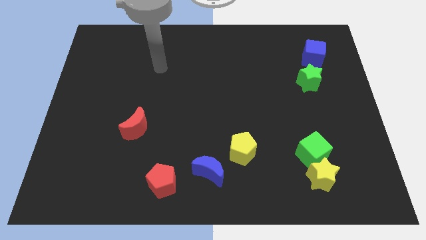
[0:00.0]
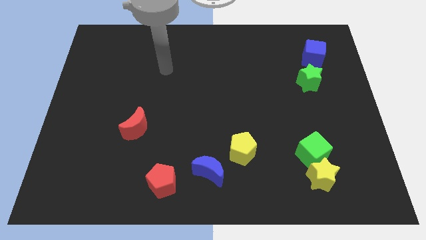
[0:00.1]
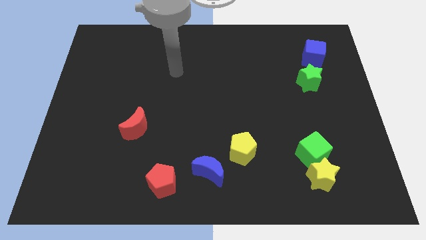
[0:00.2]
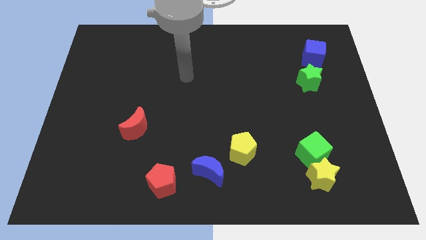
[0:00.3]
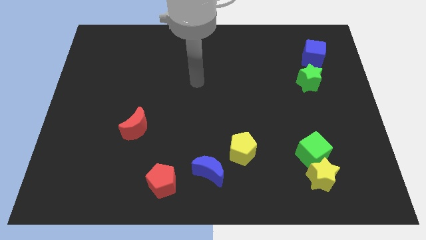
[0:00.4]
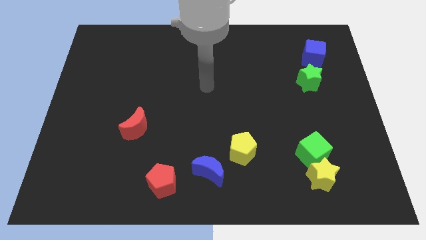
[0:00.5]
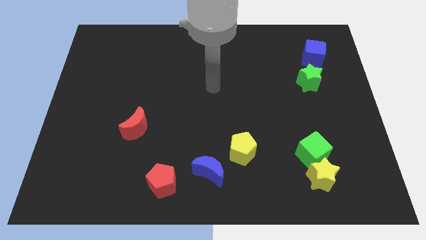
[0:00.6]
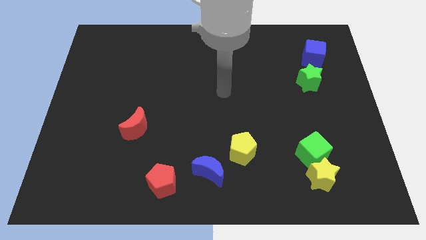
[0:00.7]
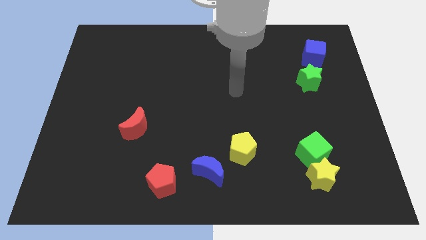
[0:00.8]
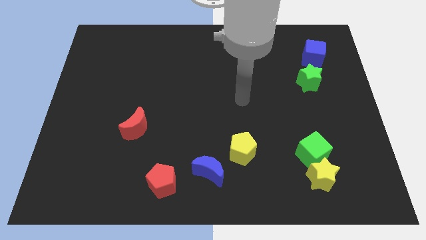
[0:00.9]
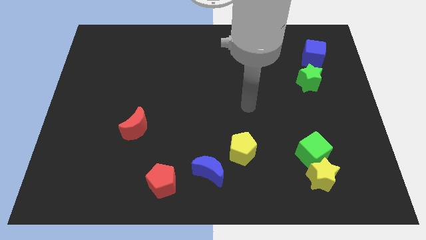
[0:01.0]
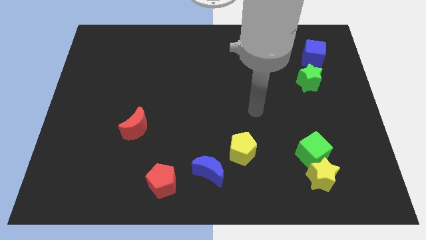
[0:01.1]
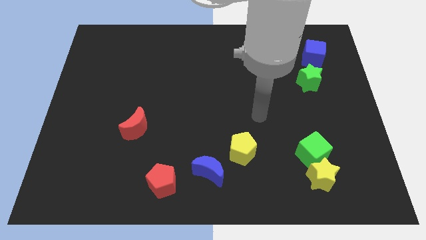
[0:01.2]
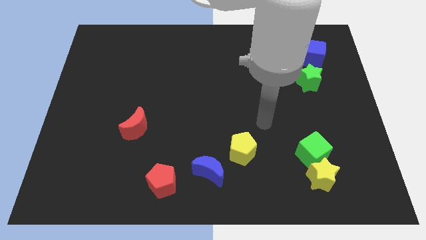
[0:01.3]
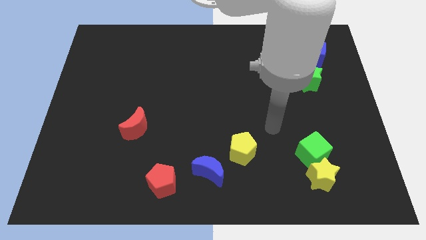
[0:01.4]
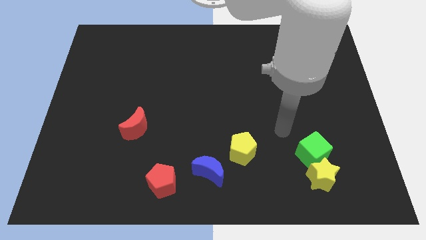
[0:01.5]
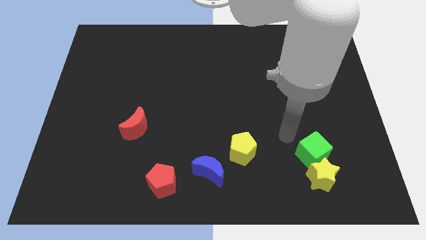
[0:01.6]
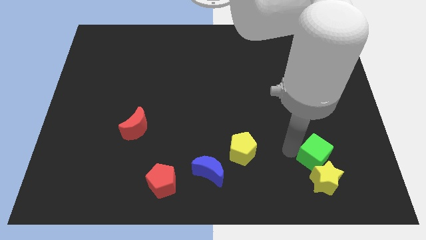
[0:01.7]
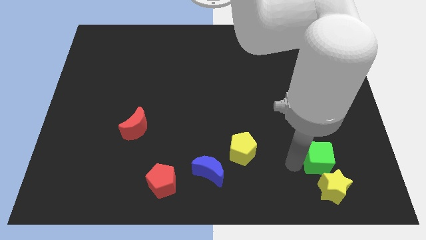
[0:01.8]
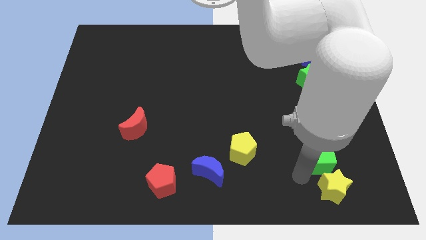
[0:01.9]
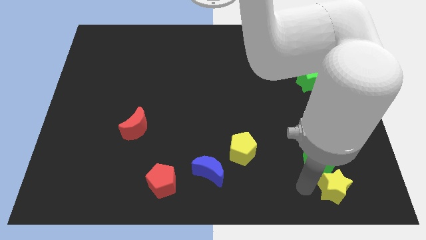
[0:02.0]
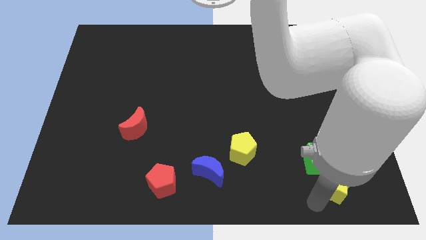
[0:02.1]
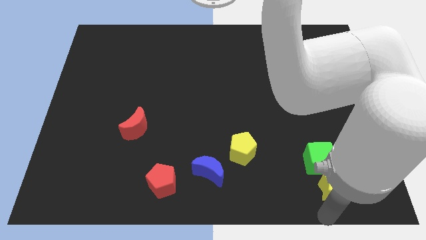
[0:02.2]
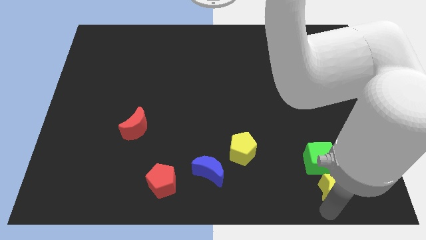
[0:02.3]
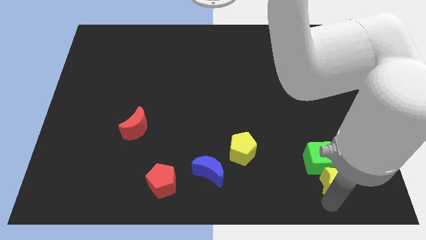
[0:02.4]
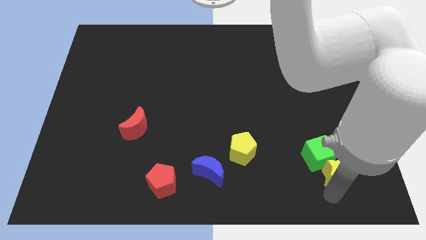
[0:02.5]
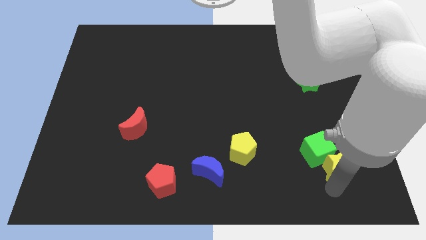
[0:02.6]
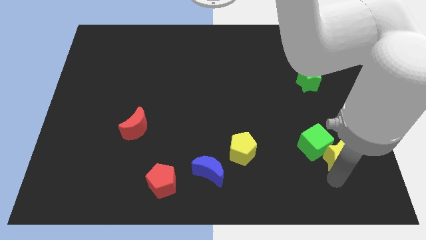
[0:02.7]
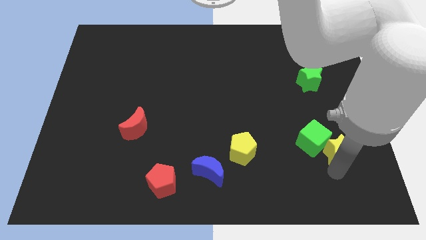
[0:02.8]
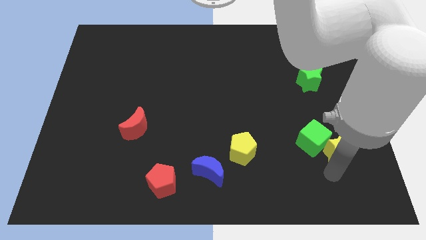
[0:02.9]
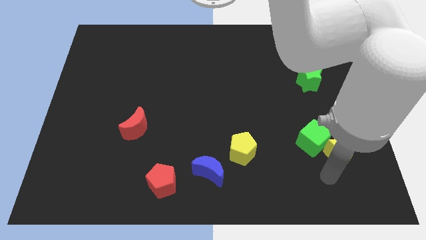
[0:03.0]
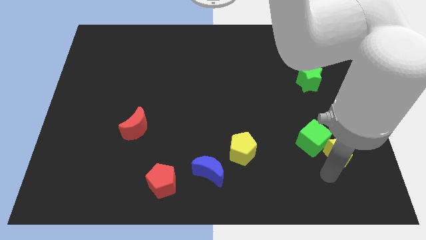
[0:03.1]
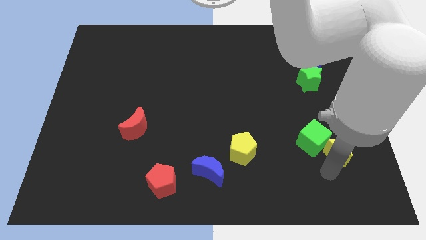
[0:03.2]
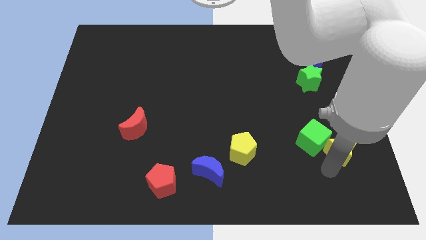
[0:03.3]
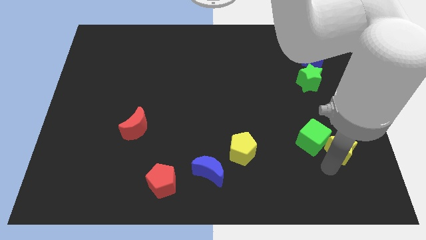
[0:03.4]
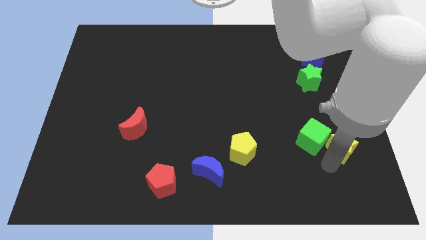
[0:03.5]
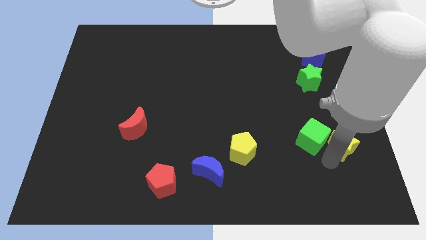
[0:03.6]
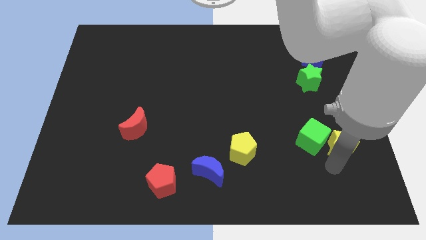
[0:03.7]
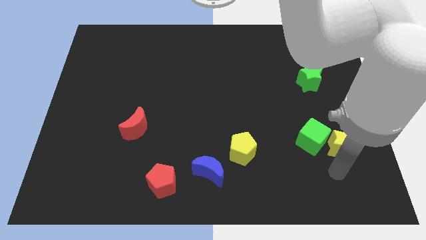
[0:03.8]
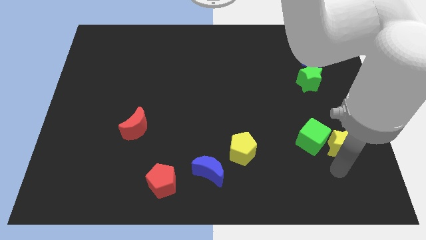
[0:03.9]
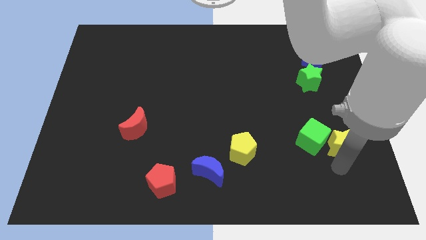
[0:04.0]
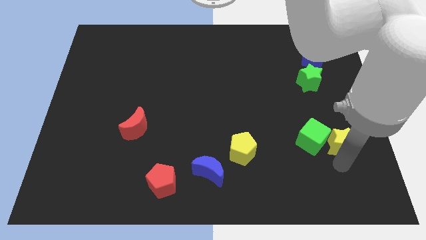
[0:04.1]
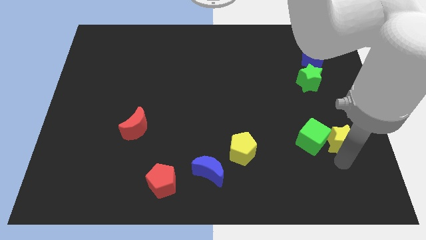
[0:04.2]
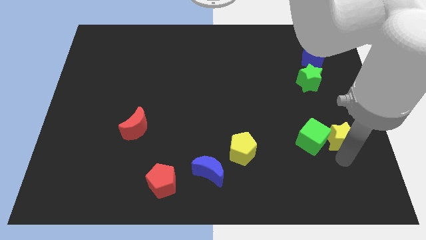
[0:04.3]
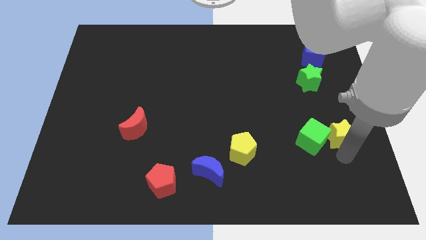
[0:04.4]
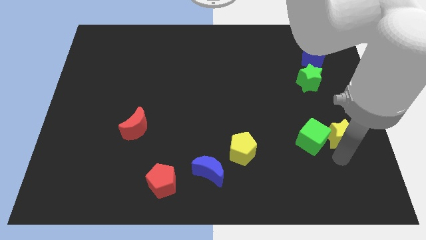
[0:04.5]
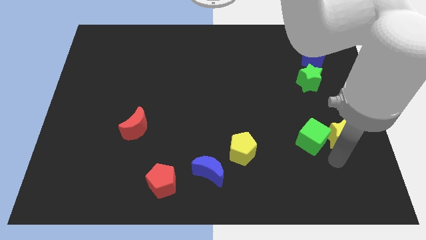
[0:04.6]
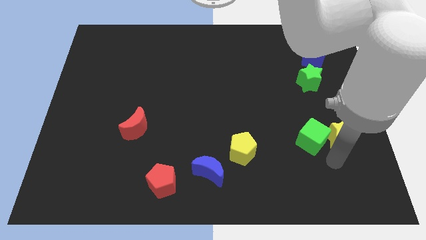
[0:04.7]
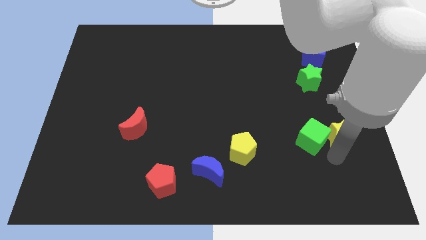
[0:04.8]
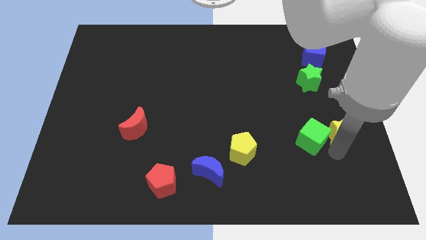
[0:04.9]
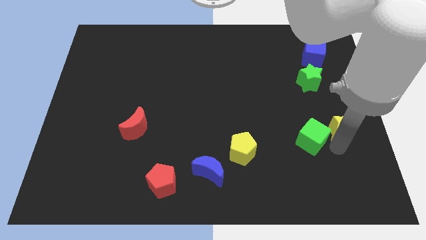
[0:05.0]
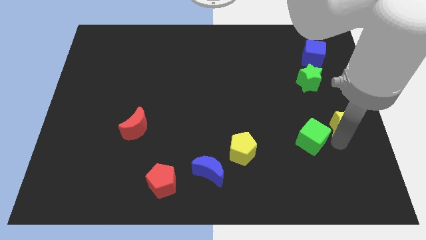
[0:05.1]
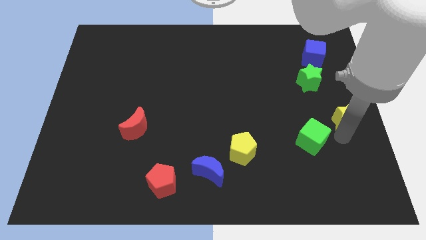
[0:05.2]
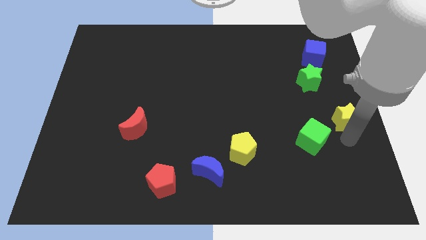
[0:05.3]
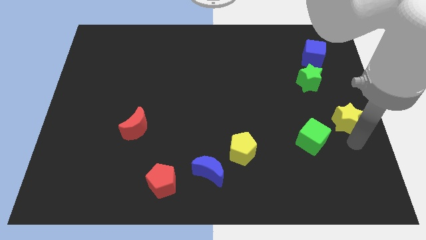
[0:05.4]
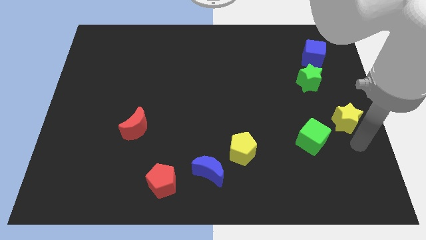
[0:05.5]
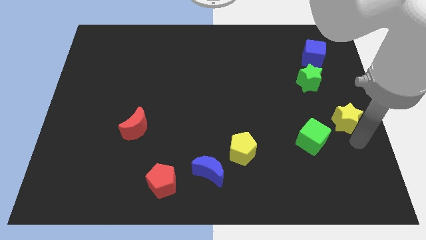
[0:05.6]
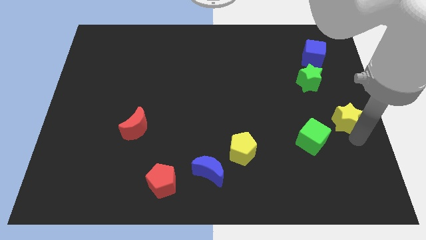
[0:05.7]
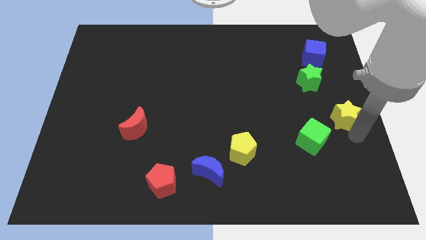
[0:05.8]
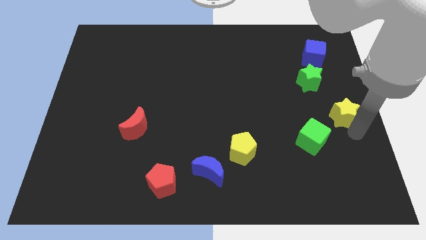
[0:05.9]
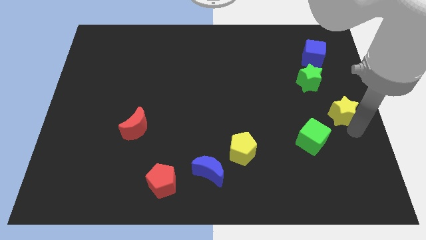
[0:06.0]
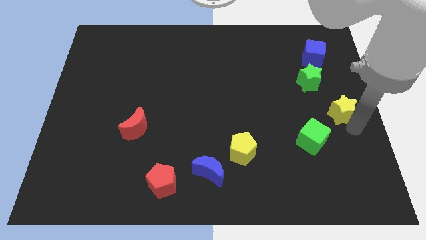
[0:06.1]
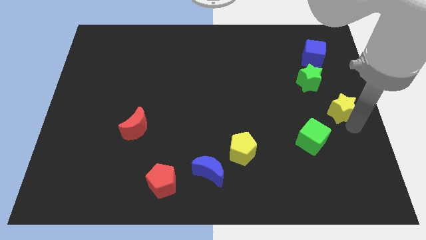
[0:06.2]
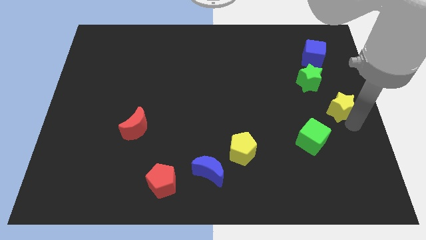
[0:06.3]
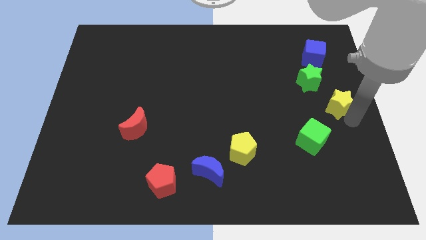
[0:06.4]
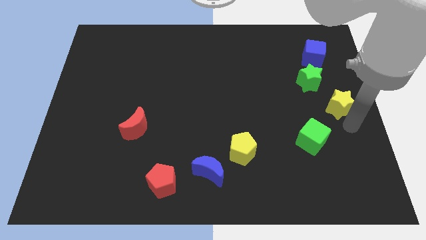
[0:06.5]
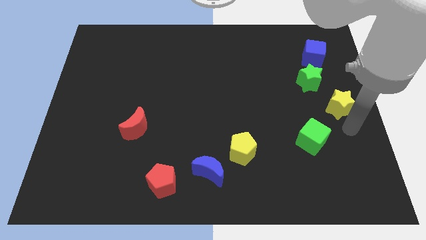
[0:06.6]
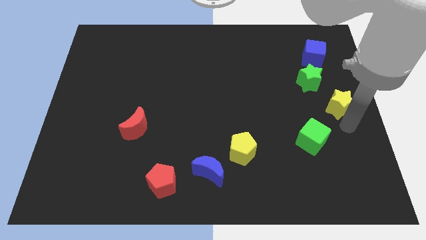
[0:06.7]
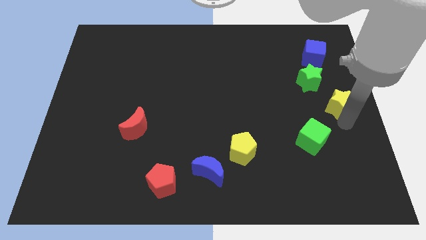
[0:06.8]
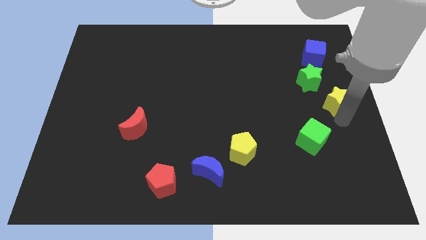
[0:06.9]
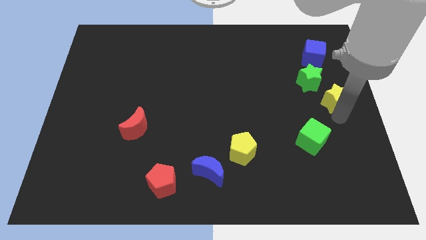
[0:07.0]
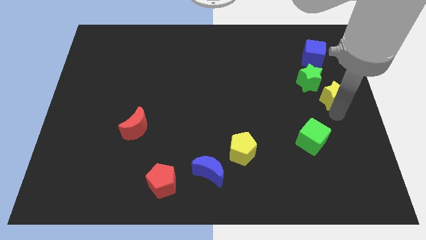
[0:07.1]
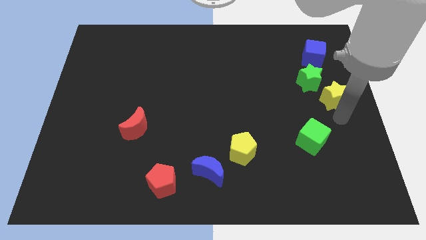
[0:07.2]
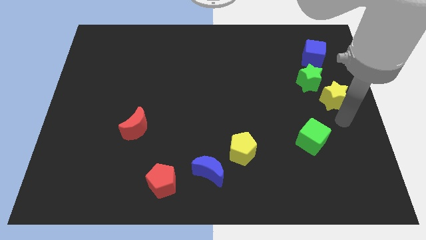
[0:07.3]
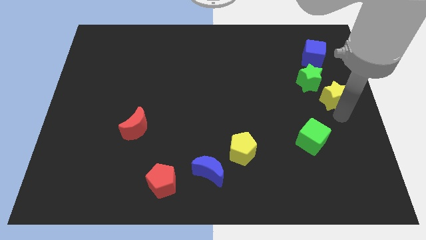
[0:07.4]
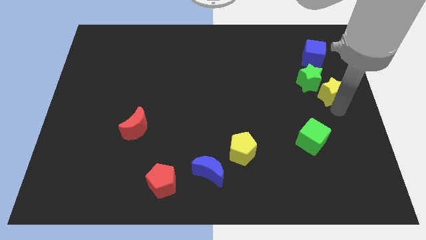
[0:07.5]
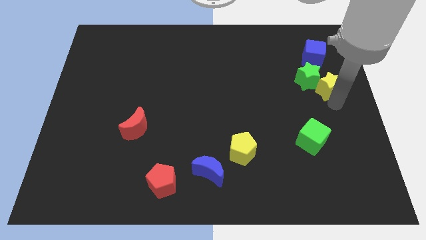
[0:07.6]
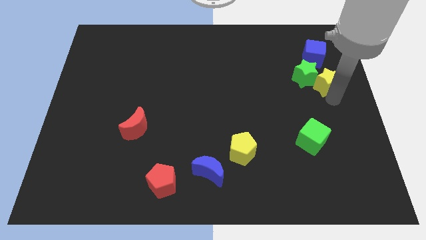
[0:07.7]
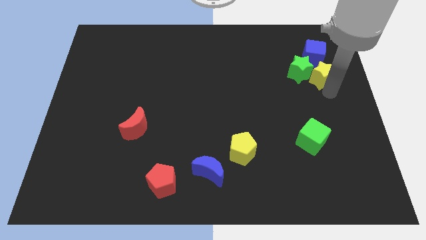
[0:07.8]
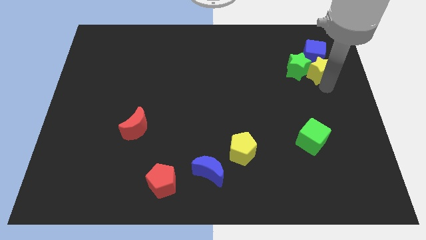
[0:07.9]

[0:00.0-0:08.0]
slide the yellow star next to the blue cube
